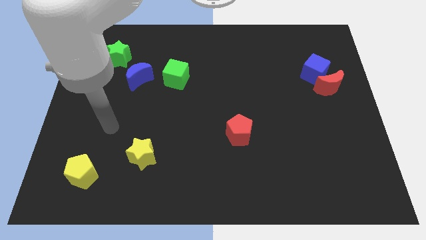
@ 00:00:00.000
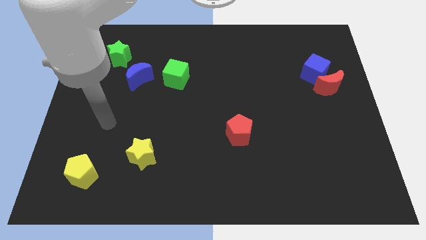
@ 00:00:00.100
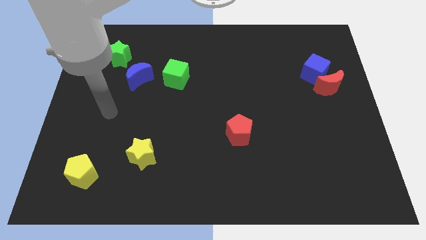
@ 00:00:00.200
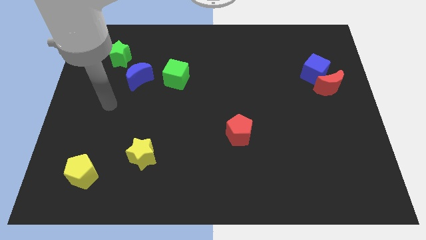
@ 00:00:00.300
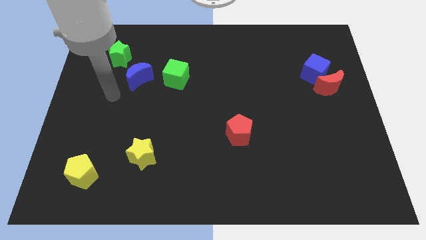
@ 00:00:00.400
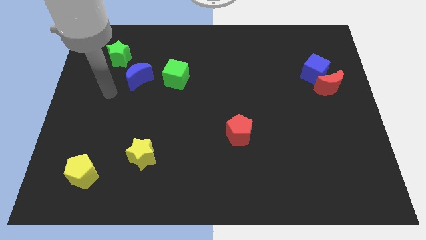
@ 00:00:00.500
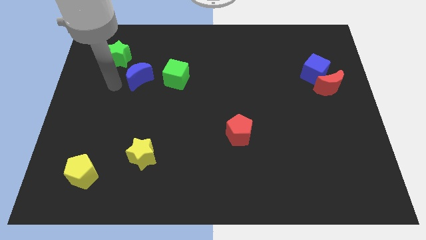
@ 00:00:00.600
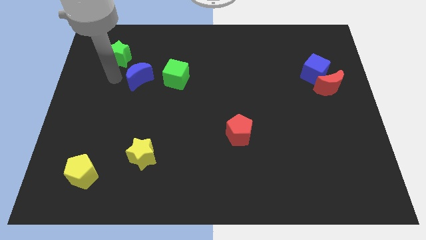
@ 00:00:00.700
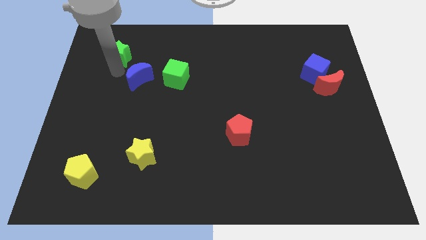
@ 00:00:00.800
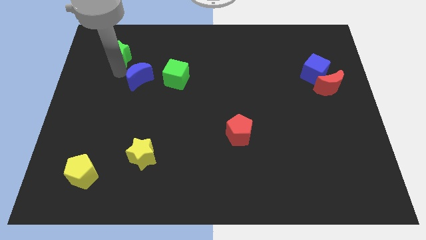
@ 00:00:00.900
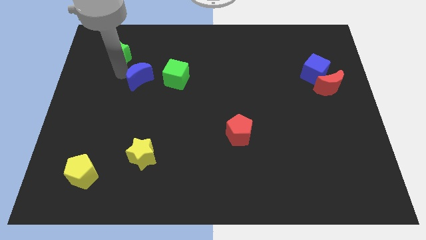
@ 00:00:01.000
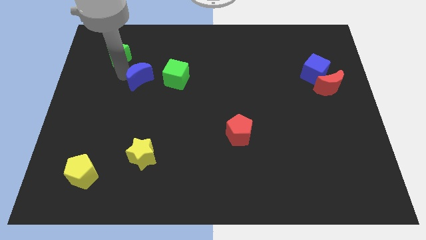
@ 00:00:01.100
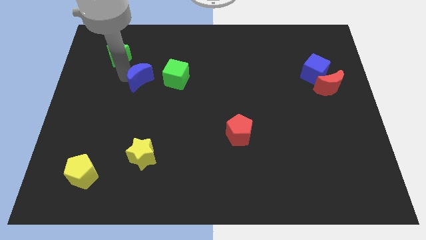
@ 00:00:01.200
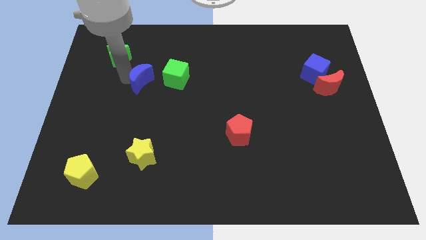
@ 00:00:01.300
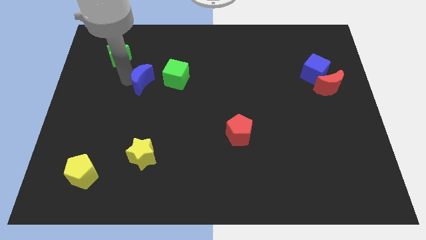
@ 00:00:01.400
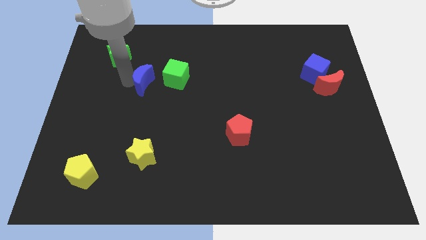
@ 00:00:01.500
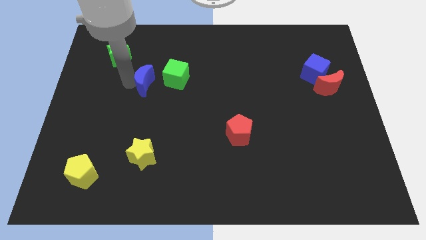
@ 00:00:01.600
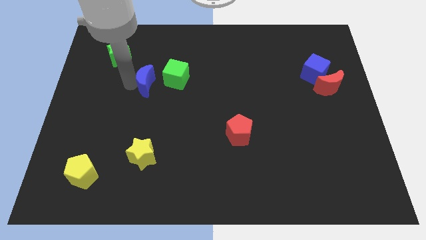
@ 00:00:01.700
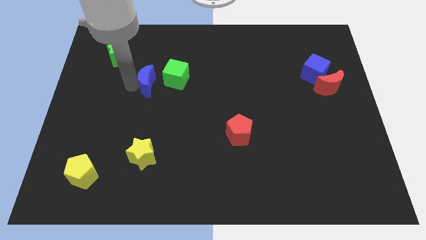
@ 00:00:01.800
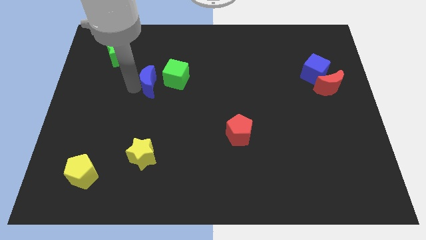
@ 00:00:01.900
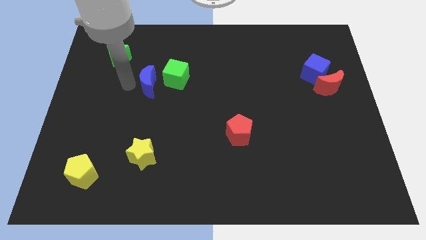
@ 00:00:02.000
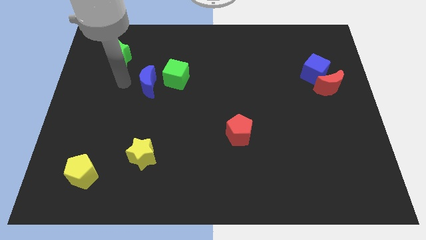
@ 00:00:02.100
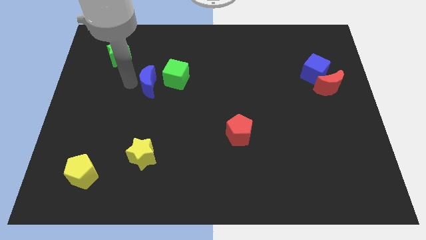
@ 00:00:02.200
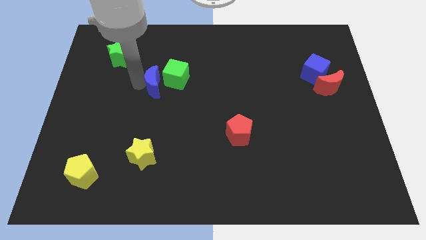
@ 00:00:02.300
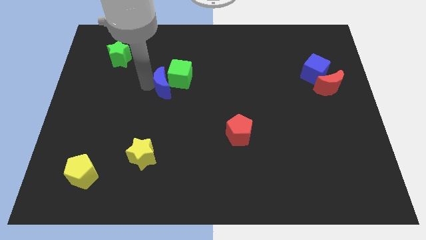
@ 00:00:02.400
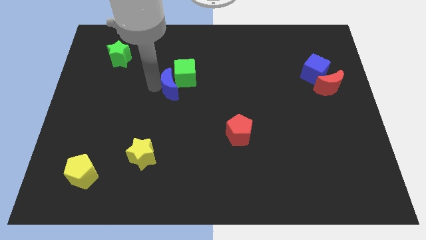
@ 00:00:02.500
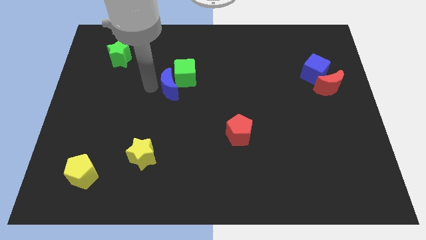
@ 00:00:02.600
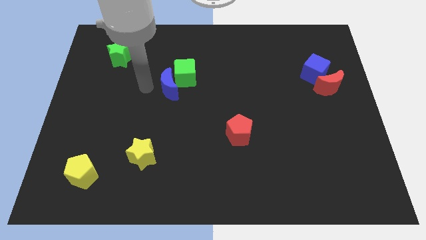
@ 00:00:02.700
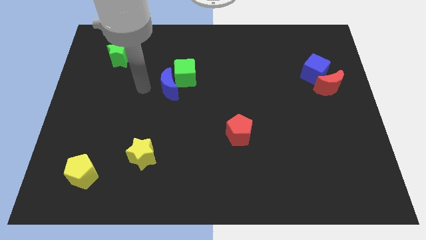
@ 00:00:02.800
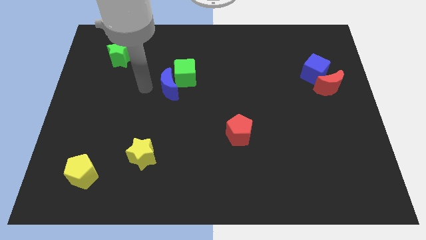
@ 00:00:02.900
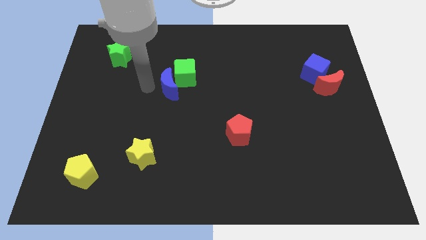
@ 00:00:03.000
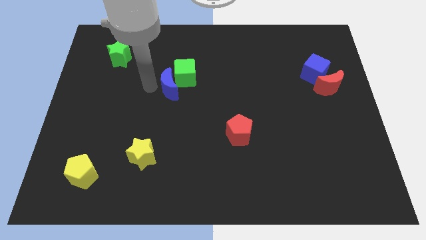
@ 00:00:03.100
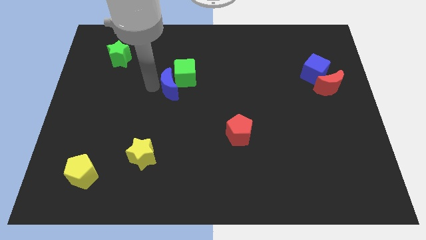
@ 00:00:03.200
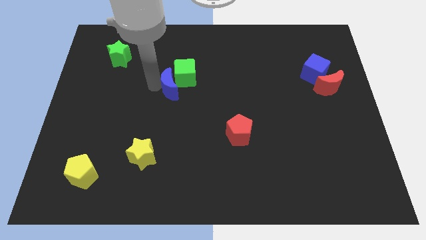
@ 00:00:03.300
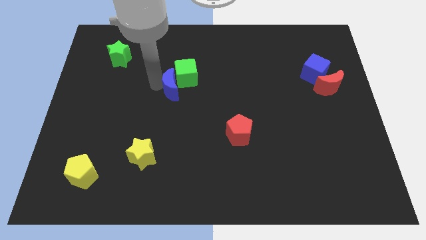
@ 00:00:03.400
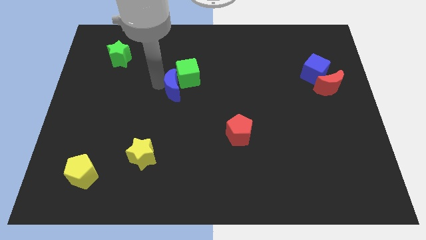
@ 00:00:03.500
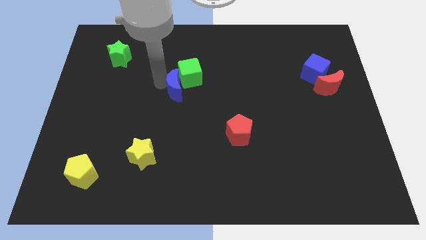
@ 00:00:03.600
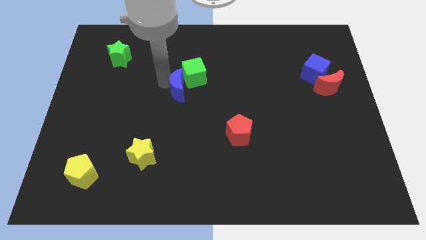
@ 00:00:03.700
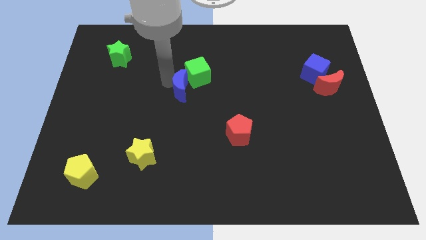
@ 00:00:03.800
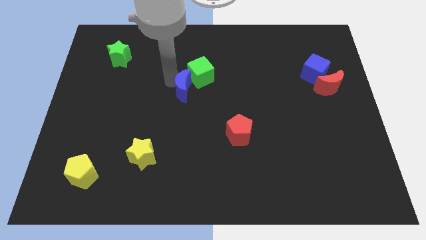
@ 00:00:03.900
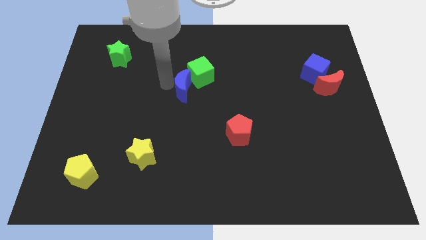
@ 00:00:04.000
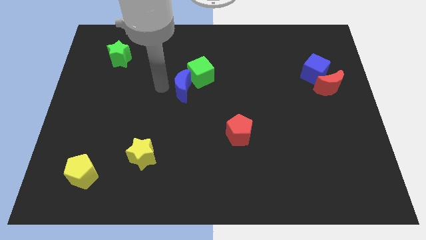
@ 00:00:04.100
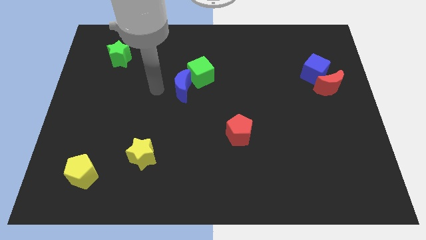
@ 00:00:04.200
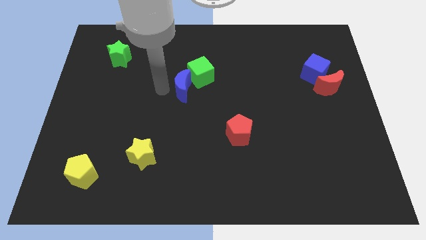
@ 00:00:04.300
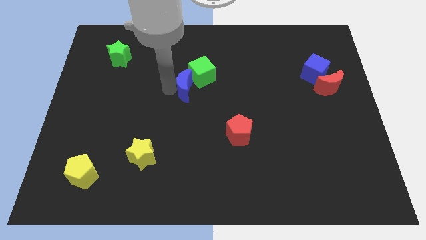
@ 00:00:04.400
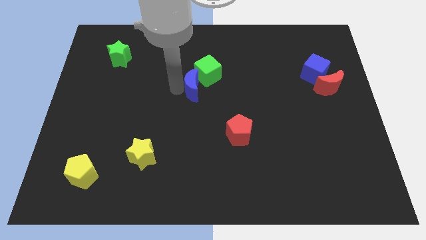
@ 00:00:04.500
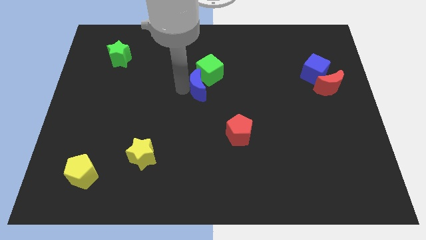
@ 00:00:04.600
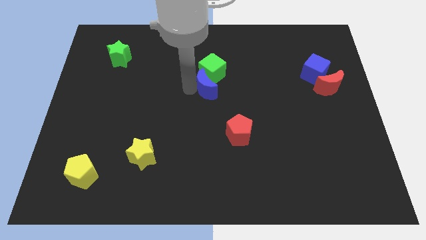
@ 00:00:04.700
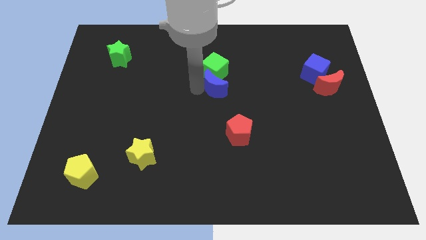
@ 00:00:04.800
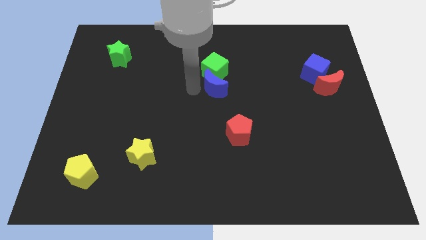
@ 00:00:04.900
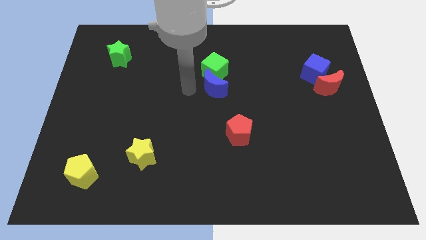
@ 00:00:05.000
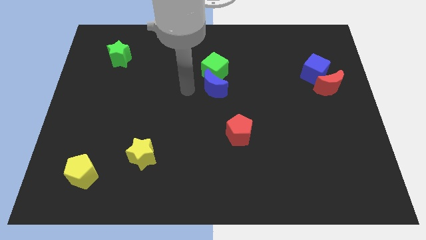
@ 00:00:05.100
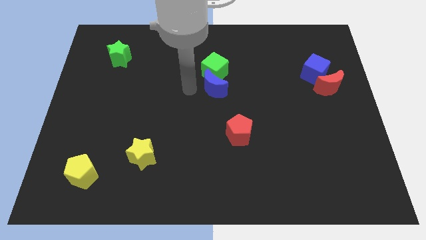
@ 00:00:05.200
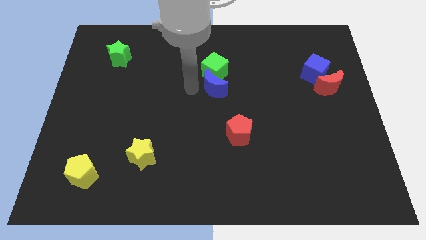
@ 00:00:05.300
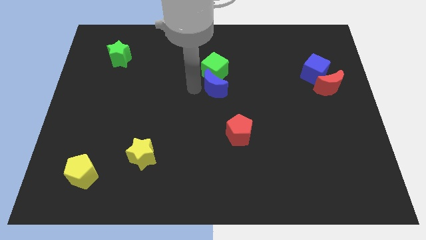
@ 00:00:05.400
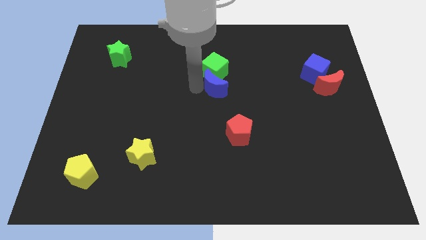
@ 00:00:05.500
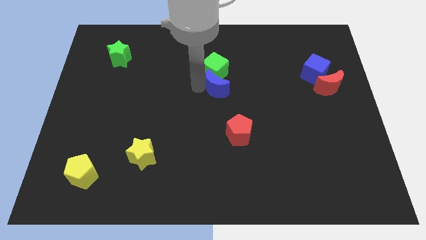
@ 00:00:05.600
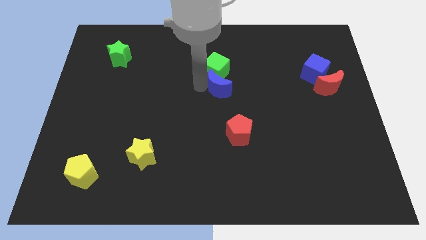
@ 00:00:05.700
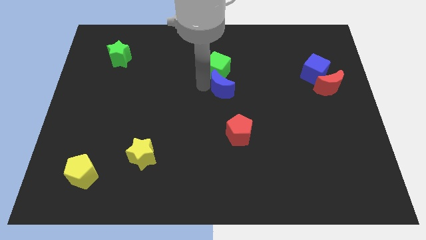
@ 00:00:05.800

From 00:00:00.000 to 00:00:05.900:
push the blue moon to the right

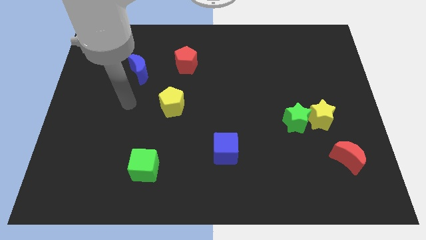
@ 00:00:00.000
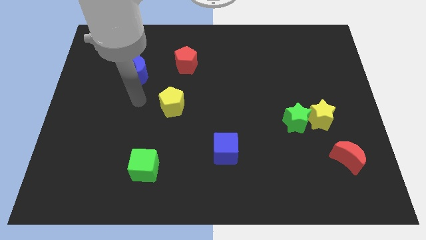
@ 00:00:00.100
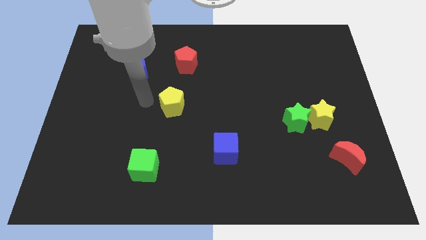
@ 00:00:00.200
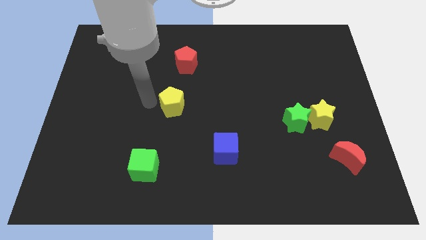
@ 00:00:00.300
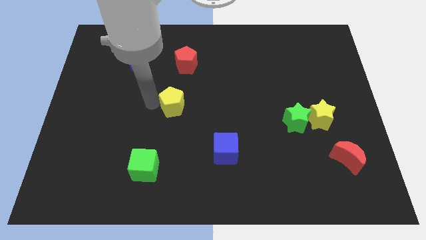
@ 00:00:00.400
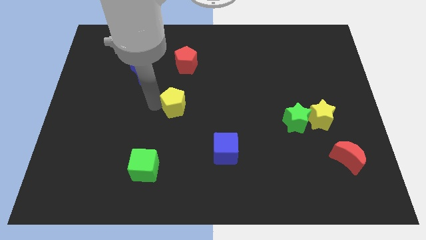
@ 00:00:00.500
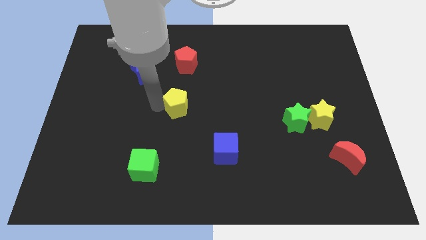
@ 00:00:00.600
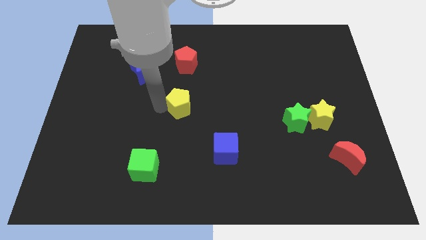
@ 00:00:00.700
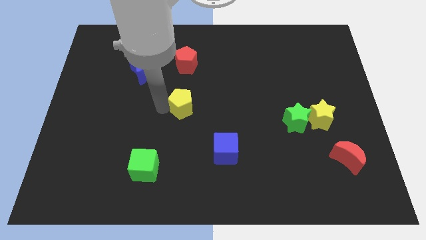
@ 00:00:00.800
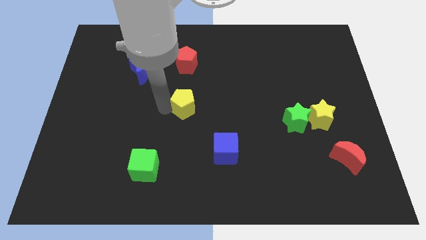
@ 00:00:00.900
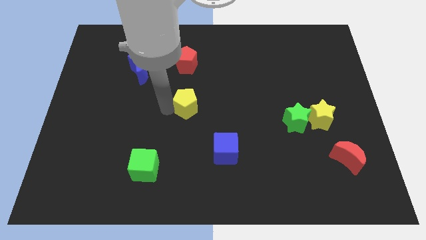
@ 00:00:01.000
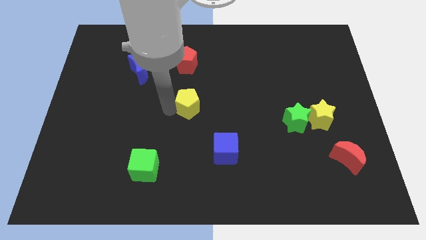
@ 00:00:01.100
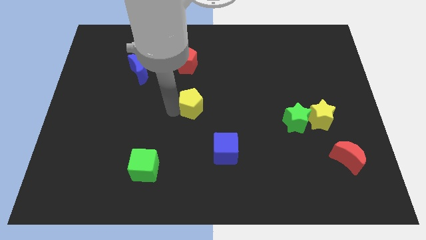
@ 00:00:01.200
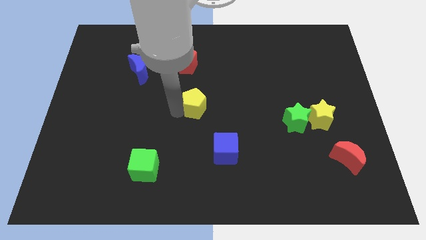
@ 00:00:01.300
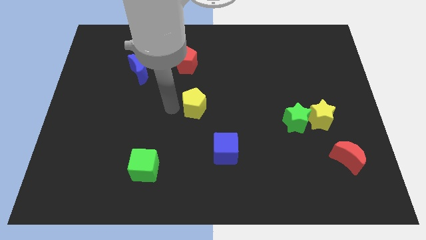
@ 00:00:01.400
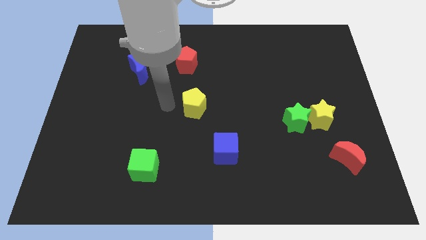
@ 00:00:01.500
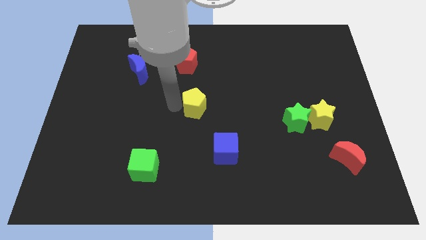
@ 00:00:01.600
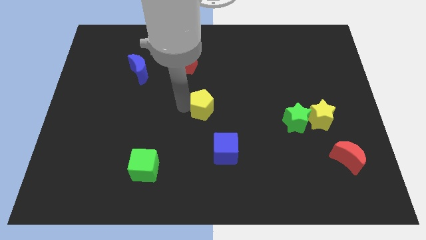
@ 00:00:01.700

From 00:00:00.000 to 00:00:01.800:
slightly slide the yellow pentagon right

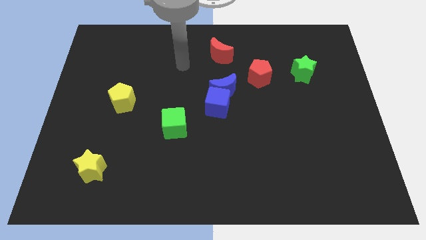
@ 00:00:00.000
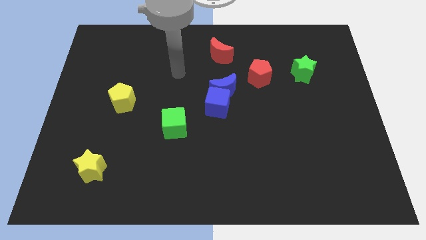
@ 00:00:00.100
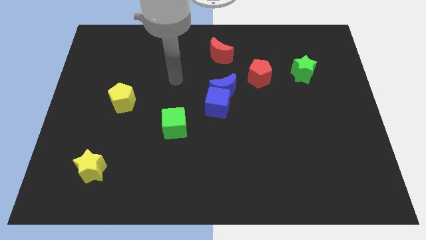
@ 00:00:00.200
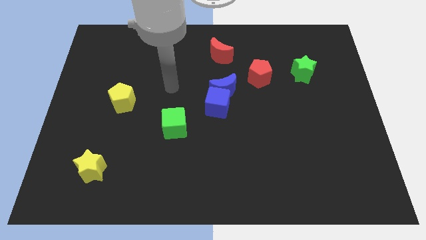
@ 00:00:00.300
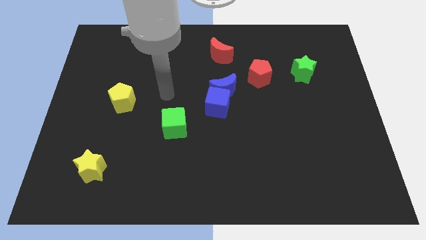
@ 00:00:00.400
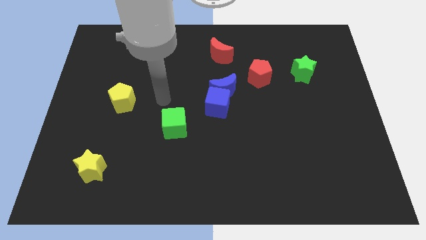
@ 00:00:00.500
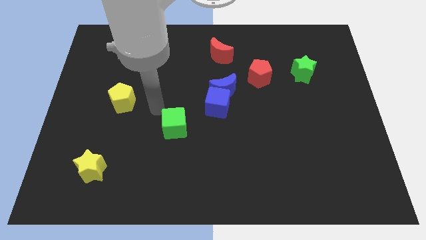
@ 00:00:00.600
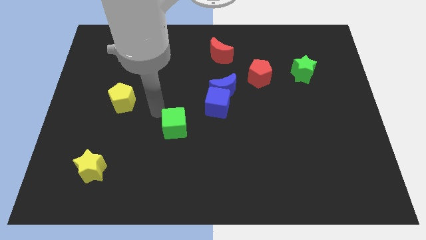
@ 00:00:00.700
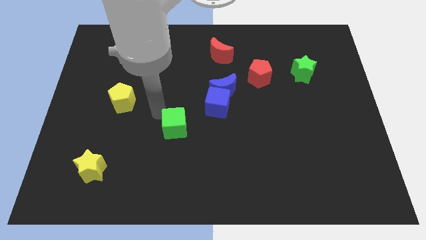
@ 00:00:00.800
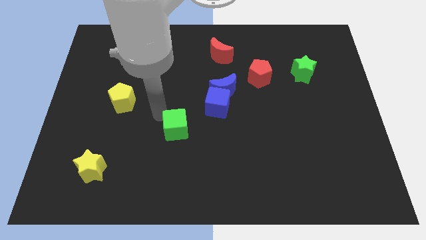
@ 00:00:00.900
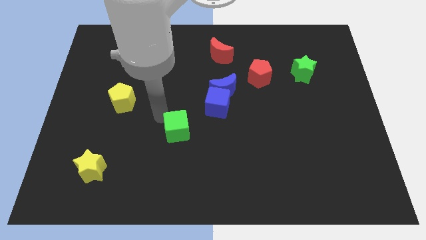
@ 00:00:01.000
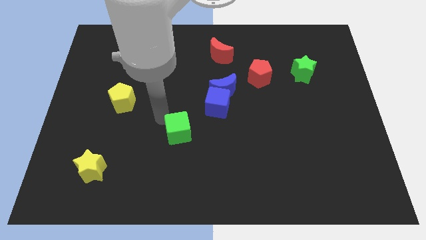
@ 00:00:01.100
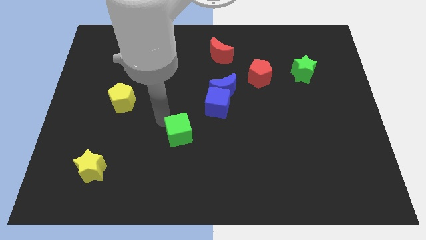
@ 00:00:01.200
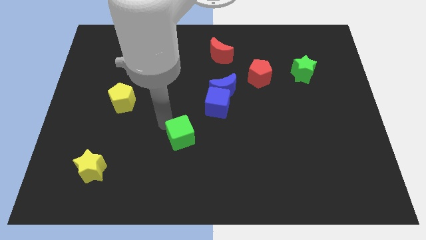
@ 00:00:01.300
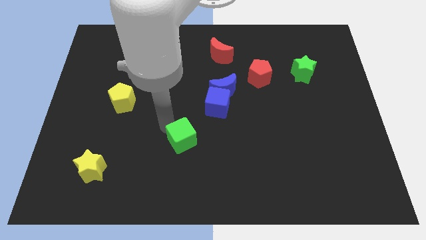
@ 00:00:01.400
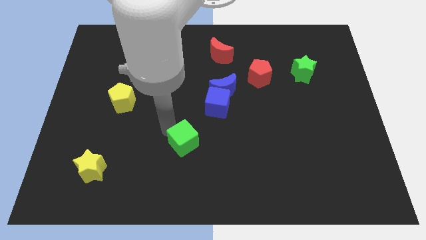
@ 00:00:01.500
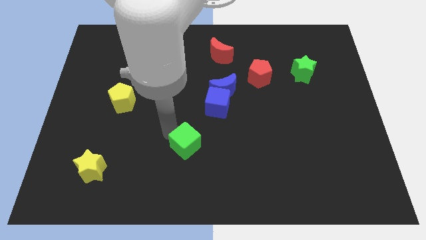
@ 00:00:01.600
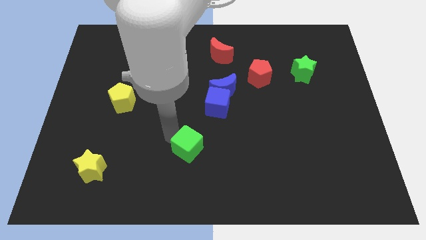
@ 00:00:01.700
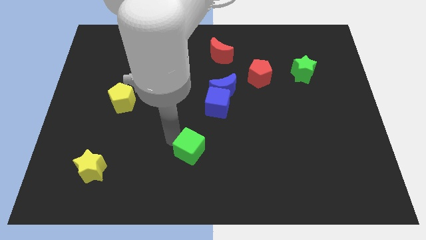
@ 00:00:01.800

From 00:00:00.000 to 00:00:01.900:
slightly slide the green cube down and then right
